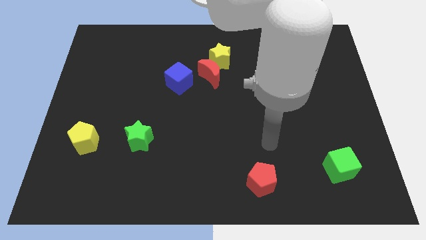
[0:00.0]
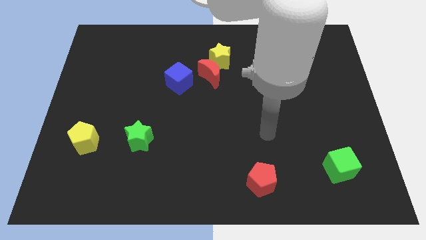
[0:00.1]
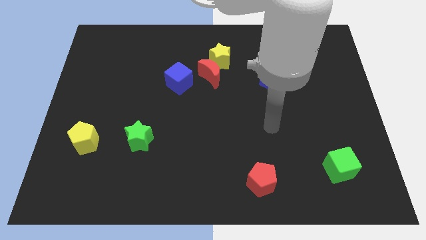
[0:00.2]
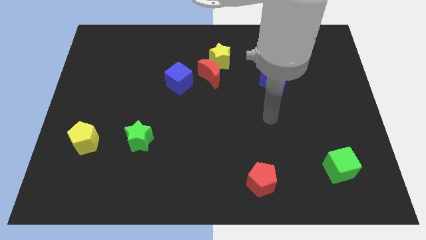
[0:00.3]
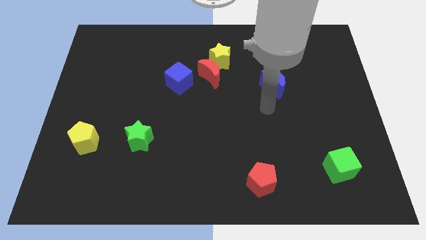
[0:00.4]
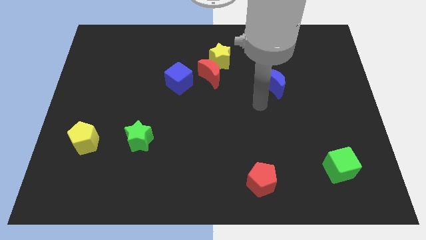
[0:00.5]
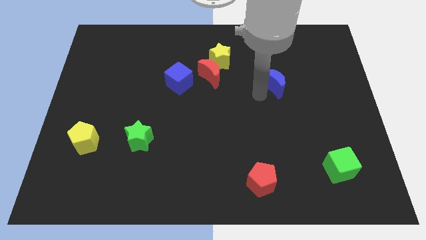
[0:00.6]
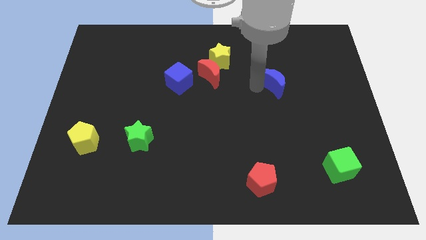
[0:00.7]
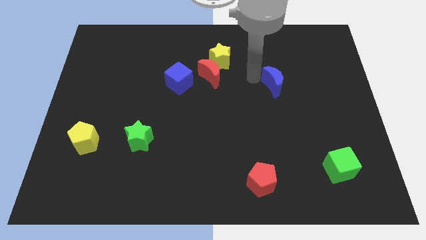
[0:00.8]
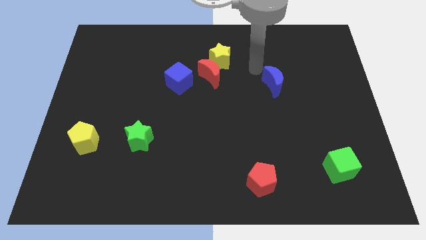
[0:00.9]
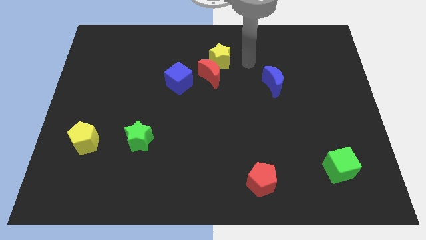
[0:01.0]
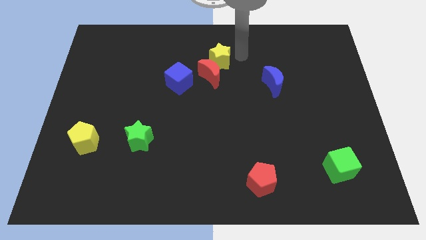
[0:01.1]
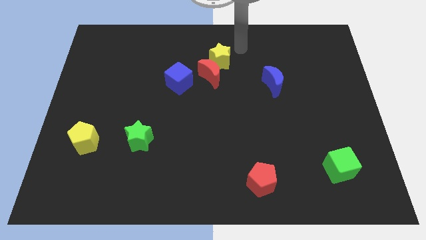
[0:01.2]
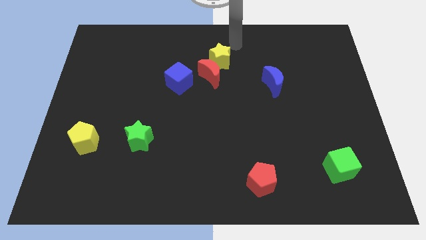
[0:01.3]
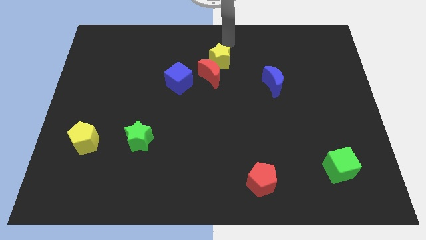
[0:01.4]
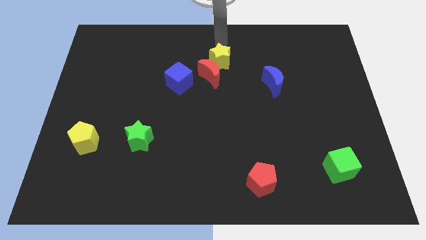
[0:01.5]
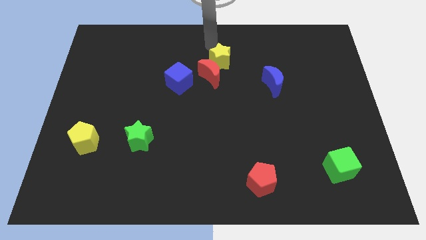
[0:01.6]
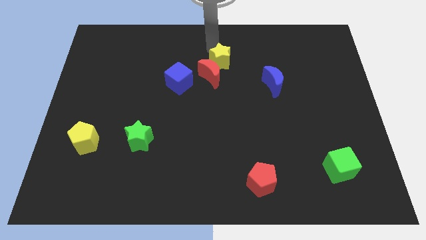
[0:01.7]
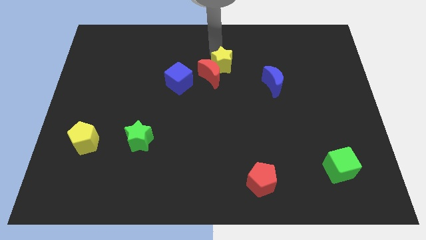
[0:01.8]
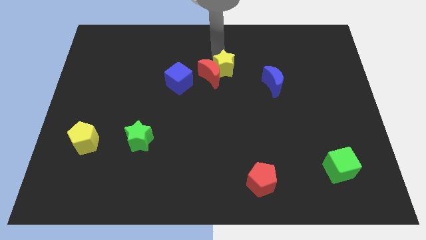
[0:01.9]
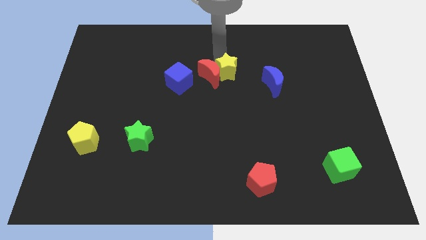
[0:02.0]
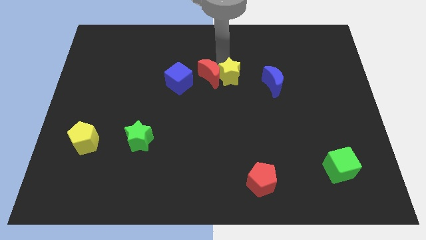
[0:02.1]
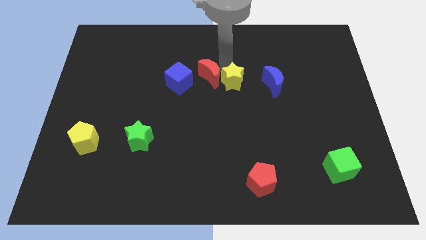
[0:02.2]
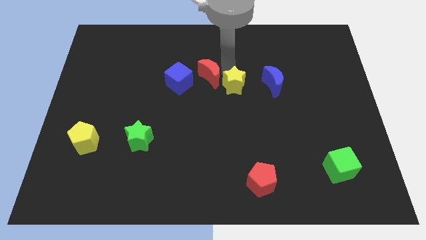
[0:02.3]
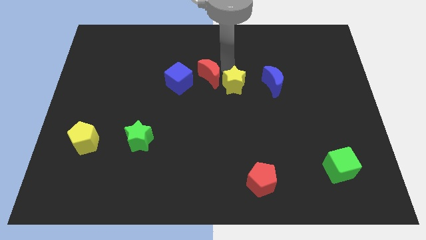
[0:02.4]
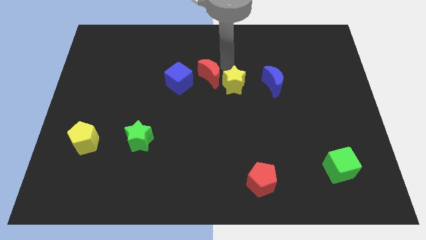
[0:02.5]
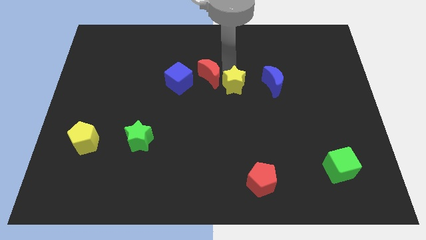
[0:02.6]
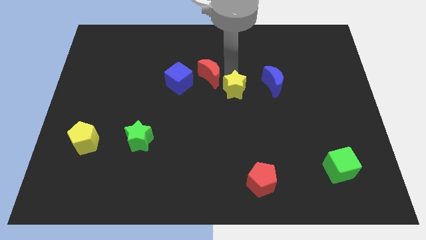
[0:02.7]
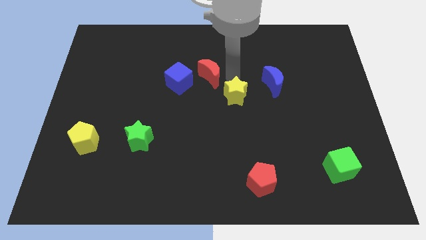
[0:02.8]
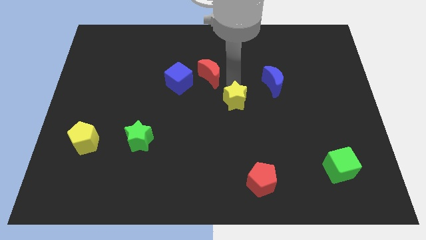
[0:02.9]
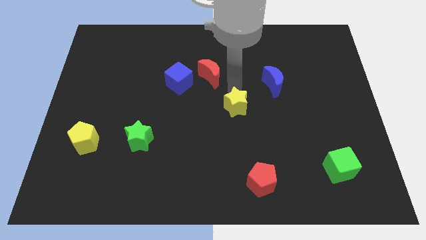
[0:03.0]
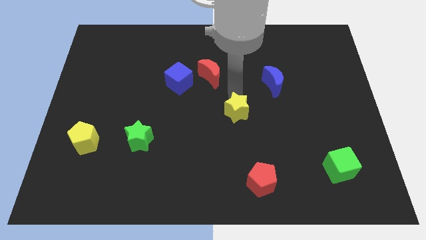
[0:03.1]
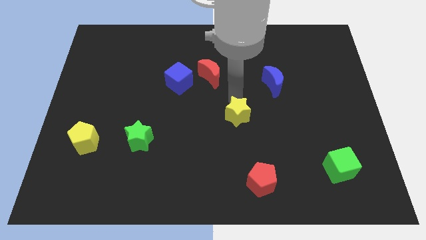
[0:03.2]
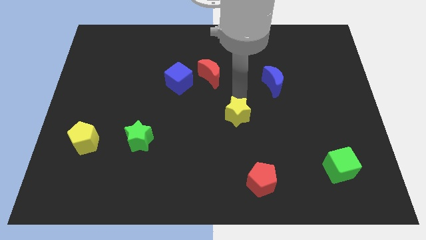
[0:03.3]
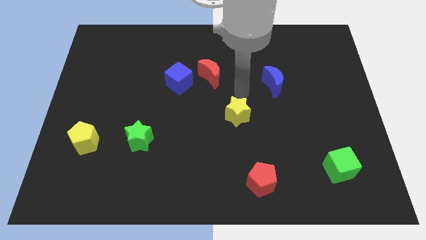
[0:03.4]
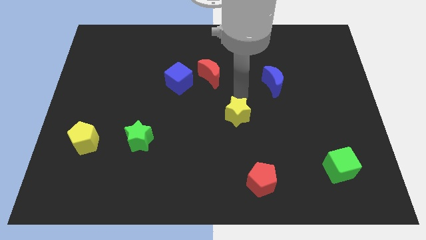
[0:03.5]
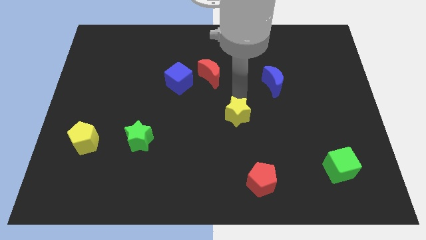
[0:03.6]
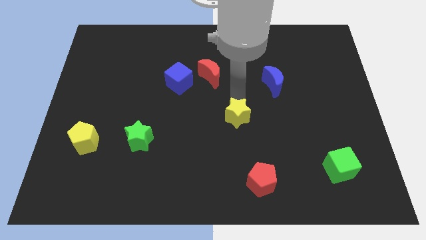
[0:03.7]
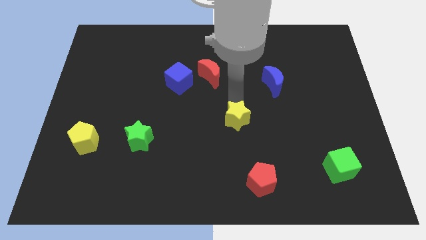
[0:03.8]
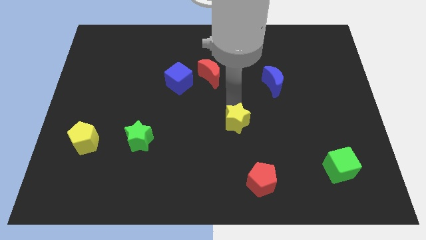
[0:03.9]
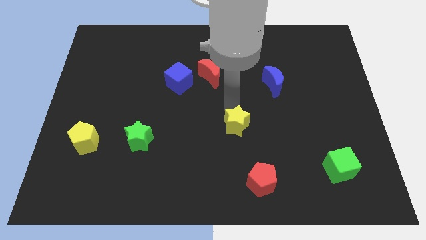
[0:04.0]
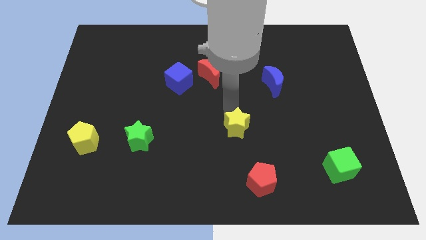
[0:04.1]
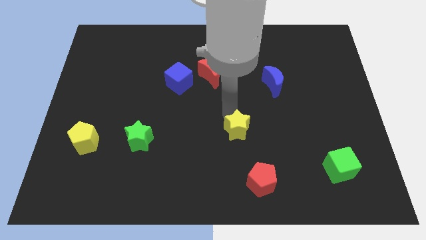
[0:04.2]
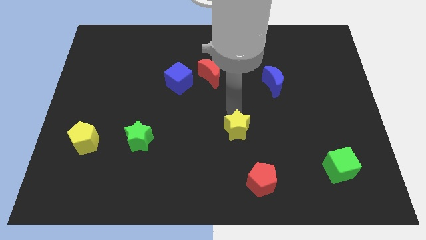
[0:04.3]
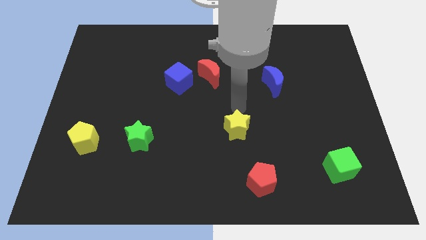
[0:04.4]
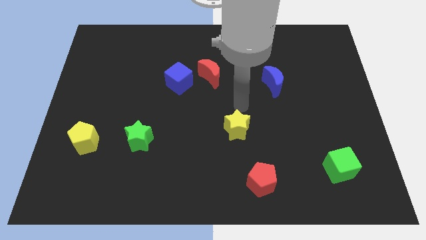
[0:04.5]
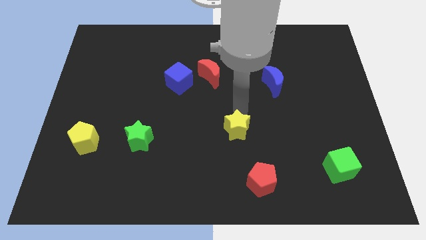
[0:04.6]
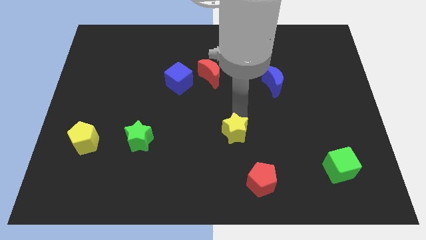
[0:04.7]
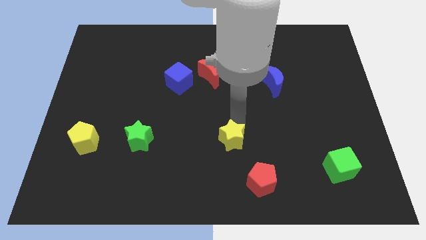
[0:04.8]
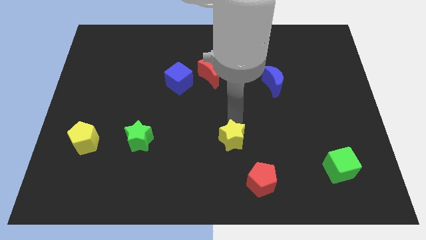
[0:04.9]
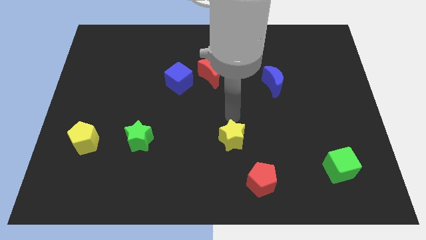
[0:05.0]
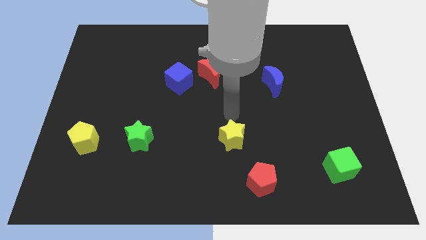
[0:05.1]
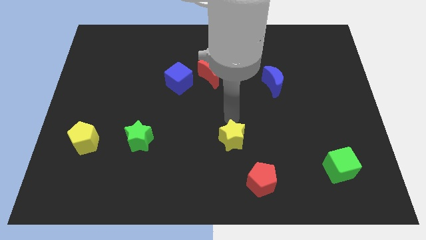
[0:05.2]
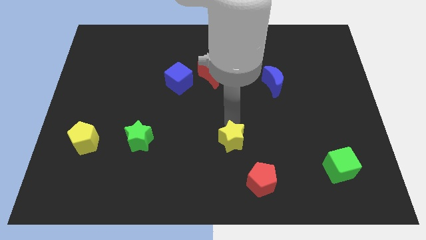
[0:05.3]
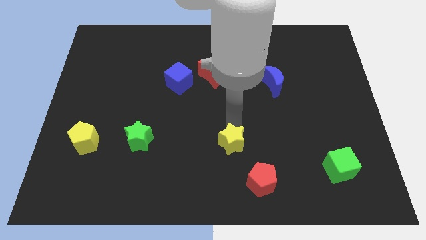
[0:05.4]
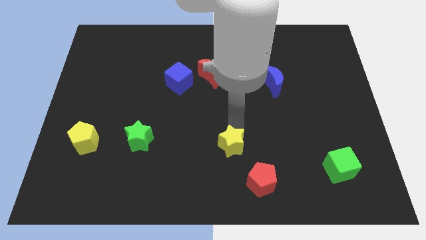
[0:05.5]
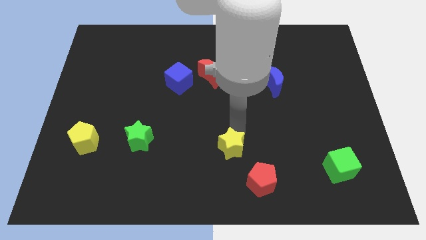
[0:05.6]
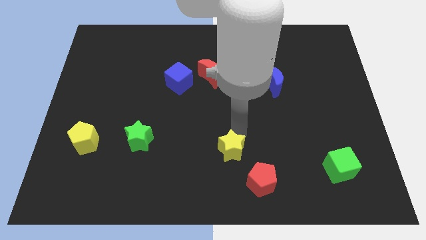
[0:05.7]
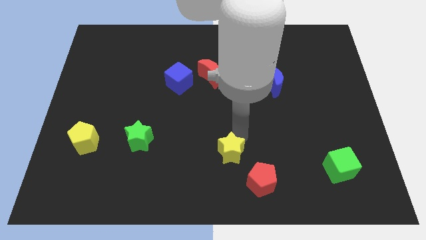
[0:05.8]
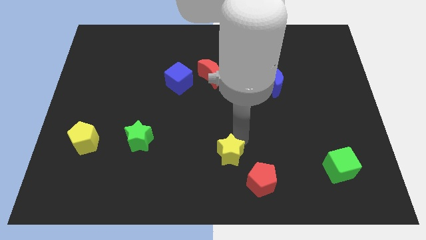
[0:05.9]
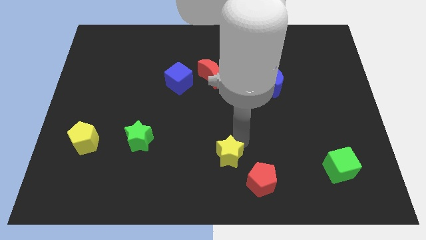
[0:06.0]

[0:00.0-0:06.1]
move the yellow star to the bottom

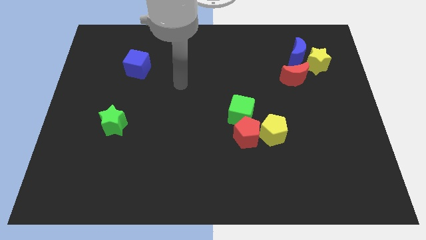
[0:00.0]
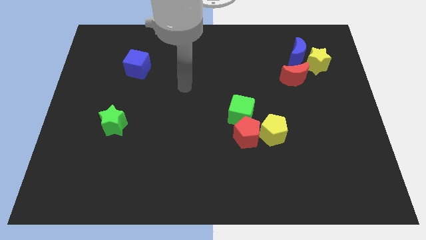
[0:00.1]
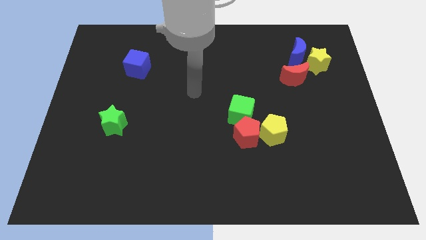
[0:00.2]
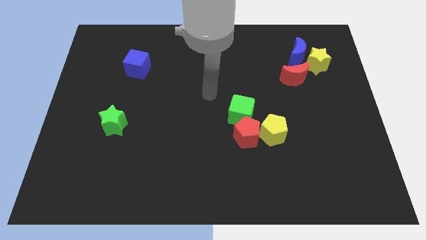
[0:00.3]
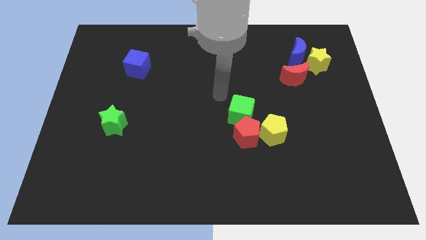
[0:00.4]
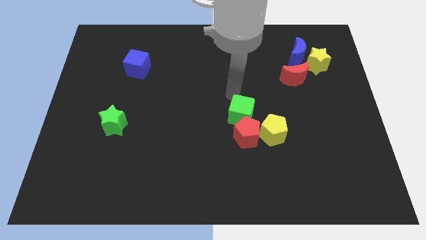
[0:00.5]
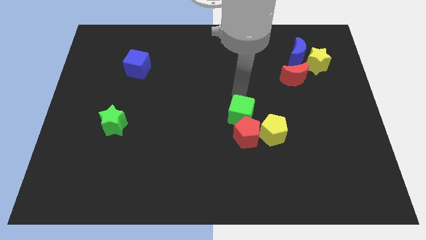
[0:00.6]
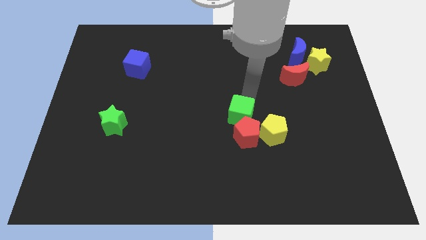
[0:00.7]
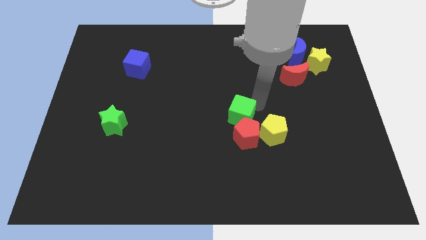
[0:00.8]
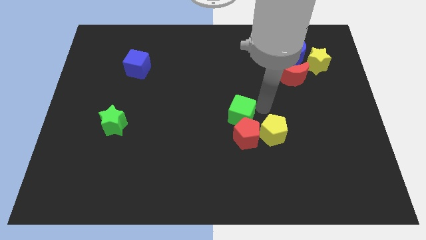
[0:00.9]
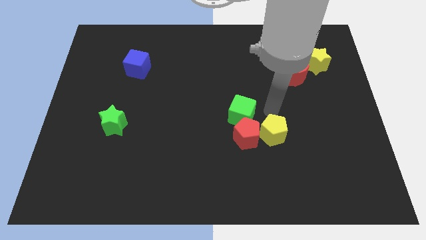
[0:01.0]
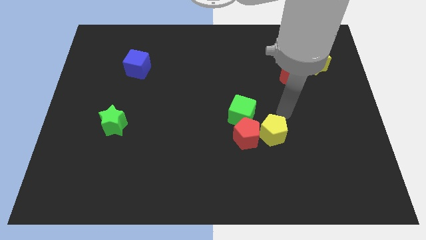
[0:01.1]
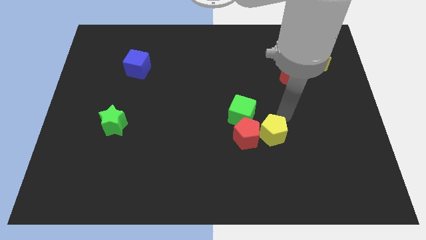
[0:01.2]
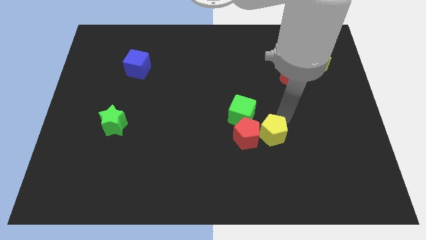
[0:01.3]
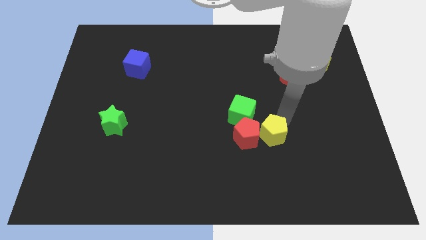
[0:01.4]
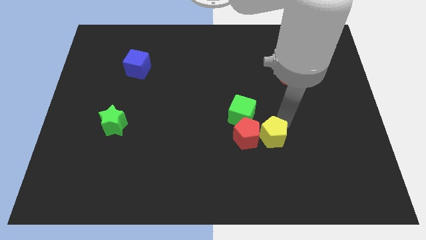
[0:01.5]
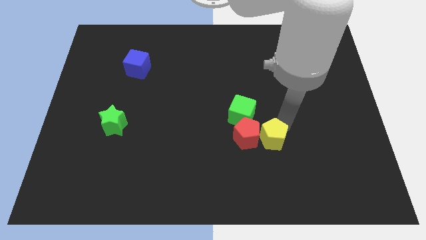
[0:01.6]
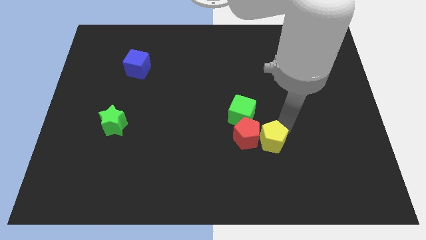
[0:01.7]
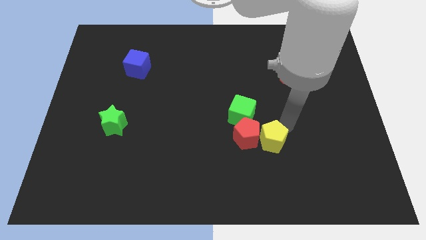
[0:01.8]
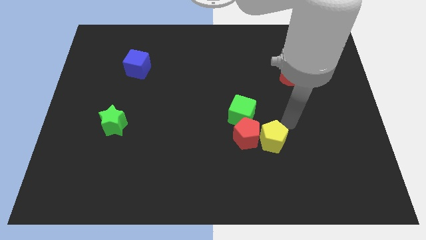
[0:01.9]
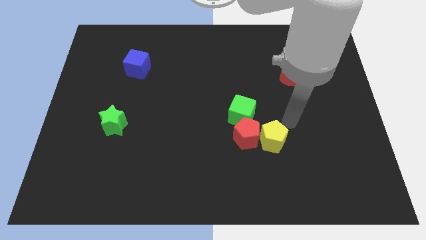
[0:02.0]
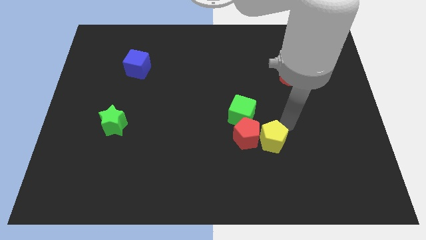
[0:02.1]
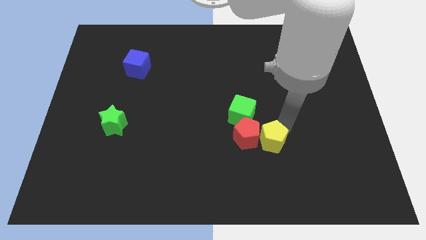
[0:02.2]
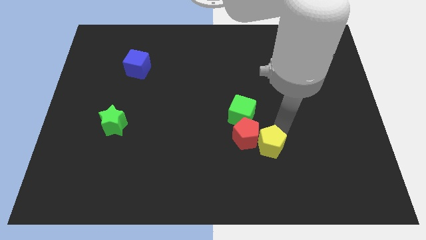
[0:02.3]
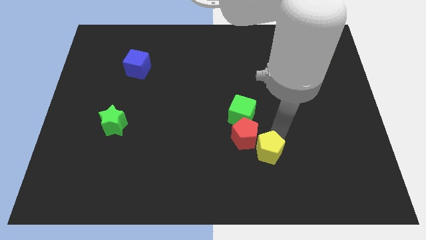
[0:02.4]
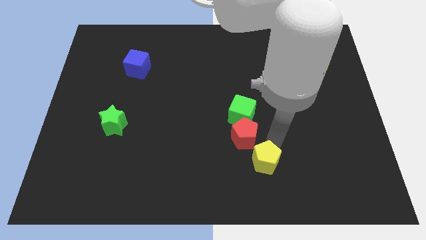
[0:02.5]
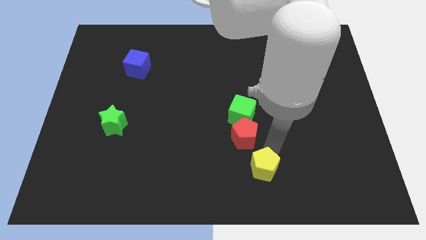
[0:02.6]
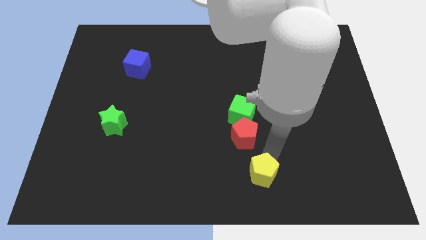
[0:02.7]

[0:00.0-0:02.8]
slide the yellow pentagon to the bottom
